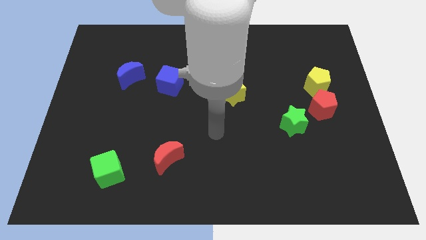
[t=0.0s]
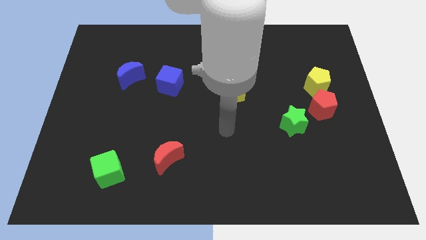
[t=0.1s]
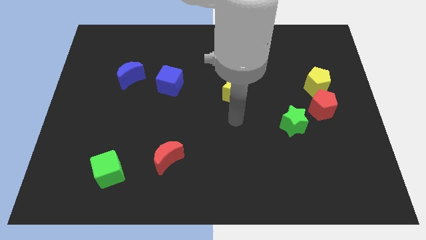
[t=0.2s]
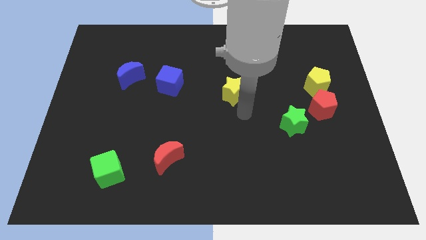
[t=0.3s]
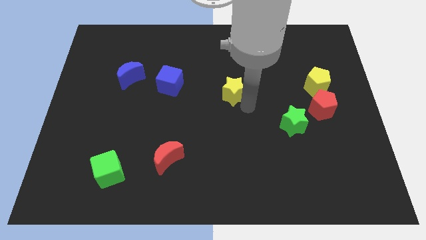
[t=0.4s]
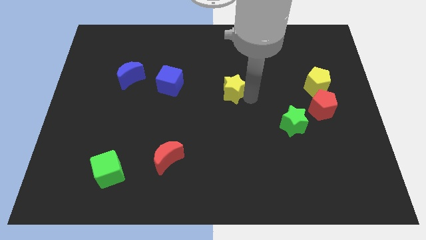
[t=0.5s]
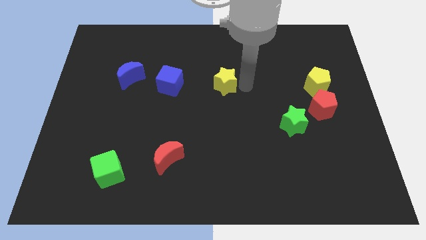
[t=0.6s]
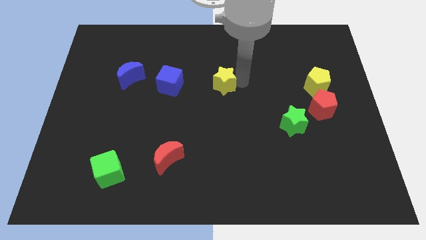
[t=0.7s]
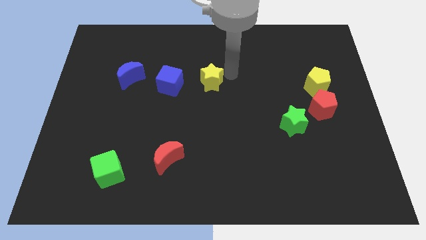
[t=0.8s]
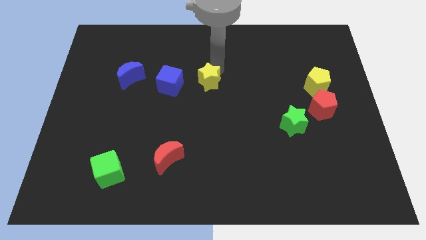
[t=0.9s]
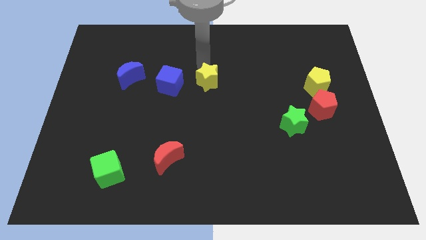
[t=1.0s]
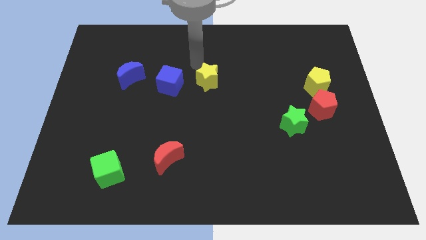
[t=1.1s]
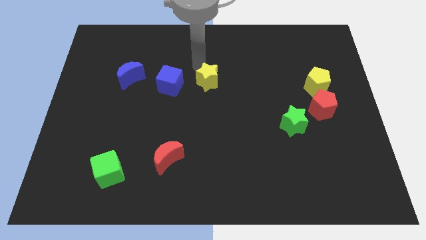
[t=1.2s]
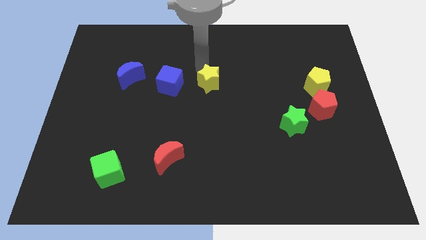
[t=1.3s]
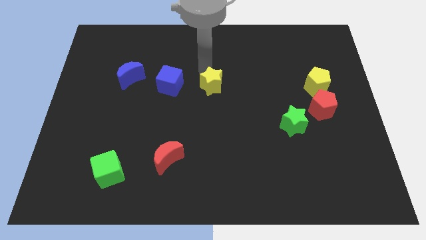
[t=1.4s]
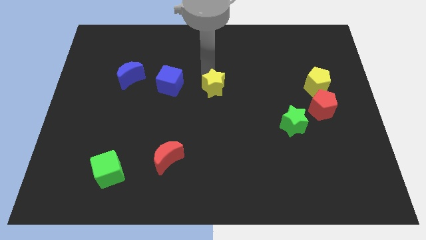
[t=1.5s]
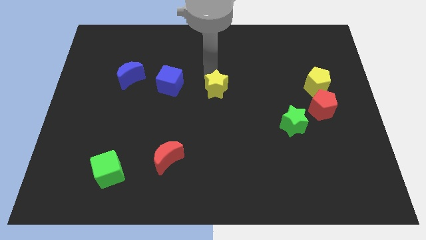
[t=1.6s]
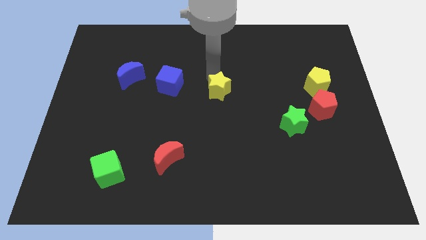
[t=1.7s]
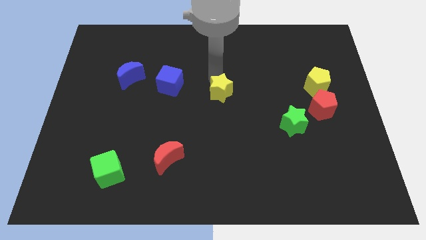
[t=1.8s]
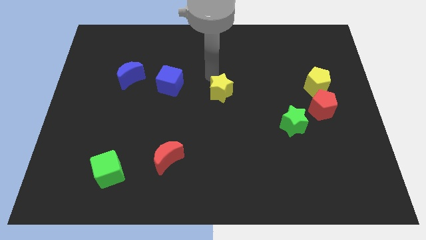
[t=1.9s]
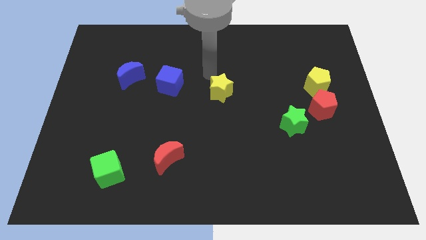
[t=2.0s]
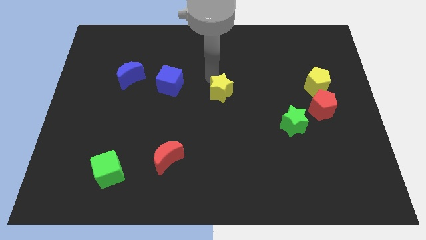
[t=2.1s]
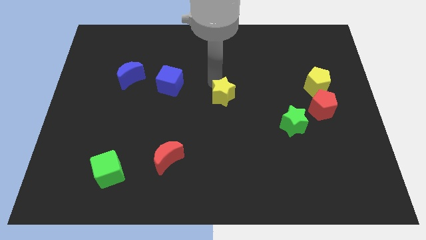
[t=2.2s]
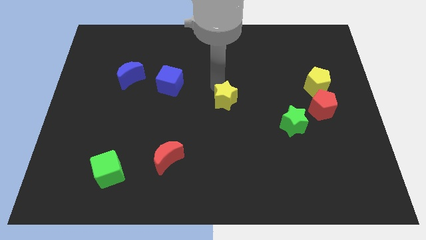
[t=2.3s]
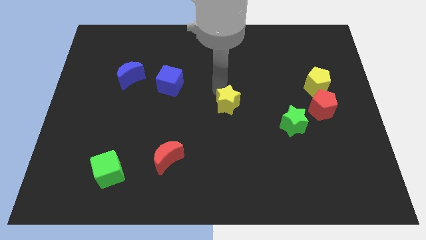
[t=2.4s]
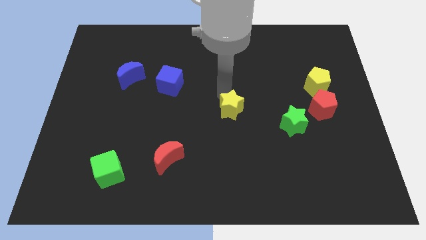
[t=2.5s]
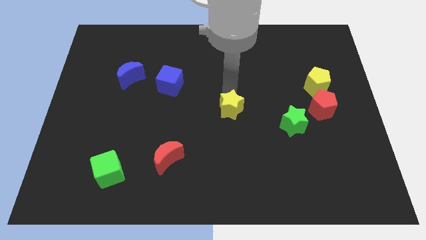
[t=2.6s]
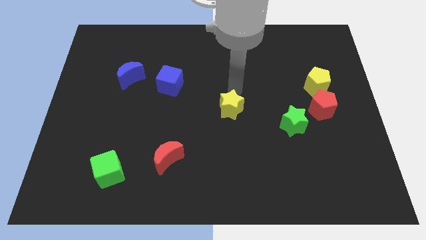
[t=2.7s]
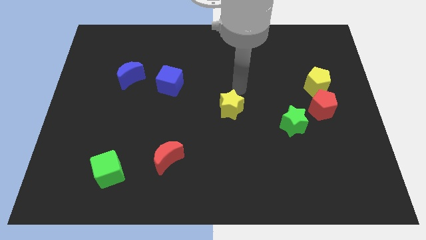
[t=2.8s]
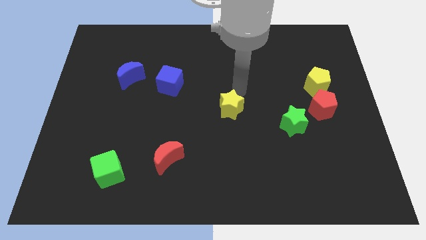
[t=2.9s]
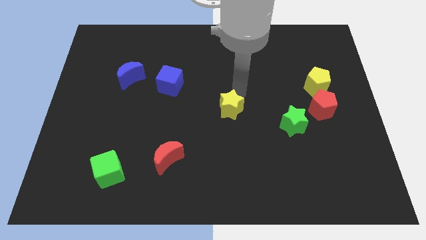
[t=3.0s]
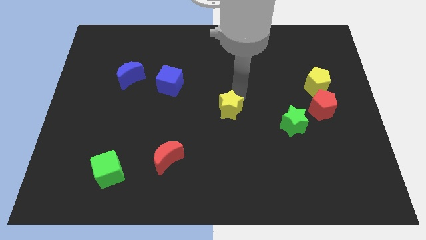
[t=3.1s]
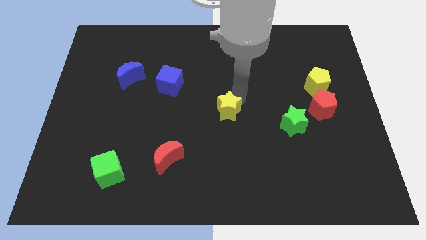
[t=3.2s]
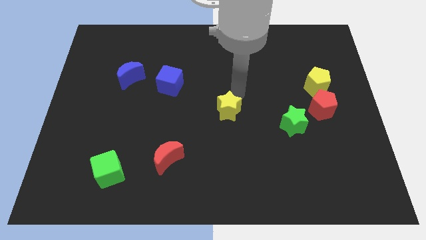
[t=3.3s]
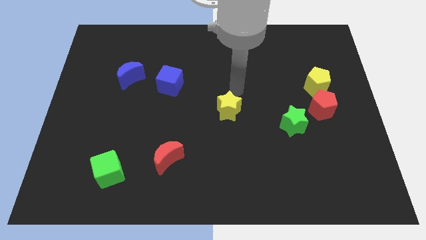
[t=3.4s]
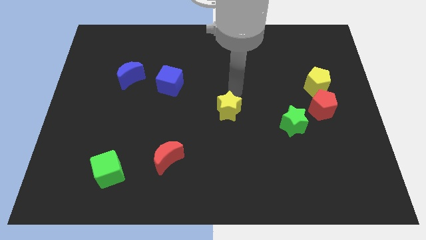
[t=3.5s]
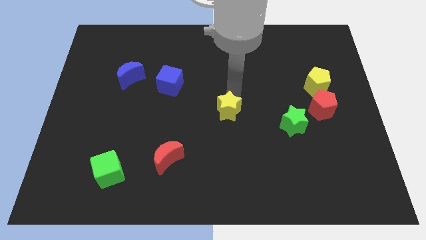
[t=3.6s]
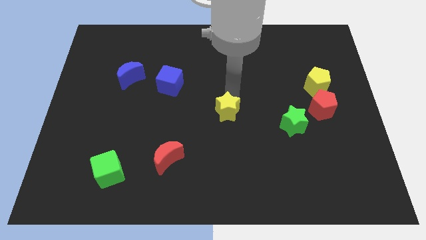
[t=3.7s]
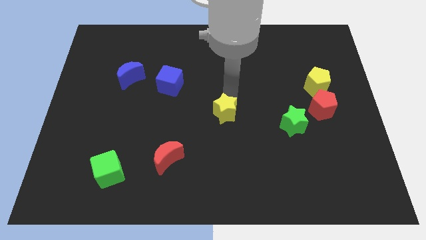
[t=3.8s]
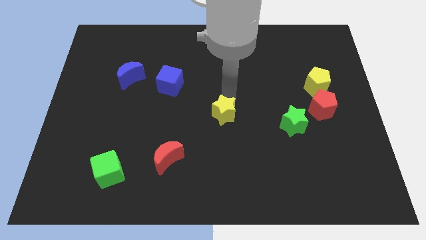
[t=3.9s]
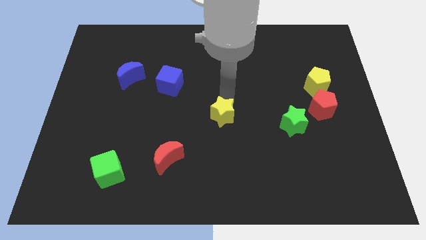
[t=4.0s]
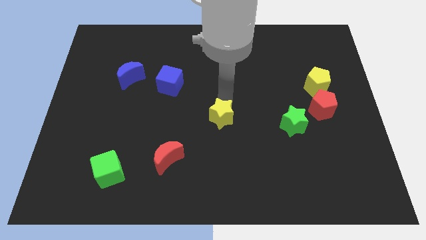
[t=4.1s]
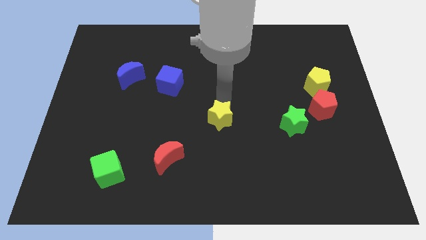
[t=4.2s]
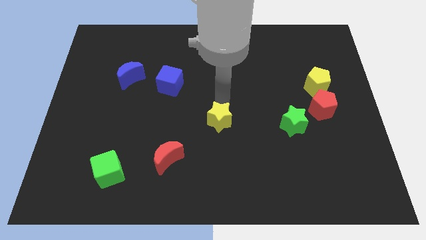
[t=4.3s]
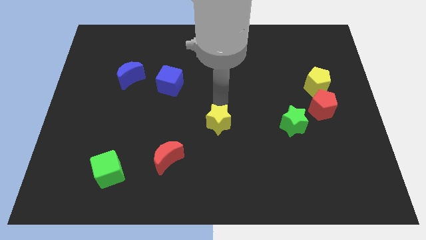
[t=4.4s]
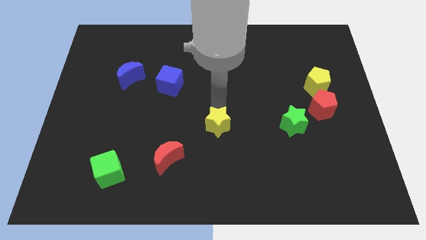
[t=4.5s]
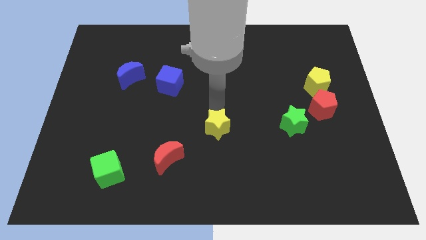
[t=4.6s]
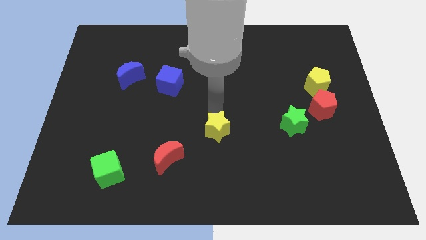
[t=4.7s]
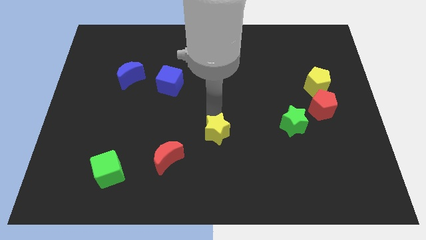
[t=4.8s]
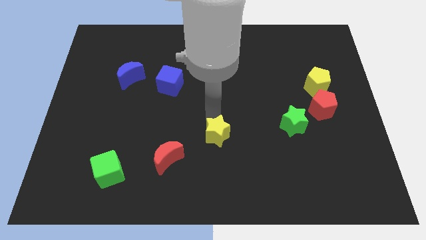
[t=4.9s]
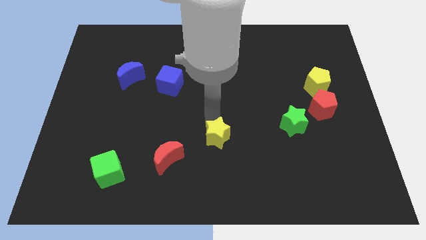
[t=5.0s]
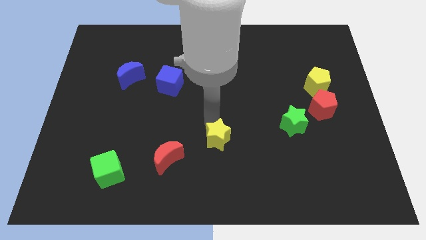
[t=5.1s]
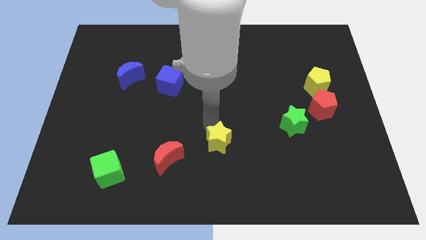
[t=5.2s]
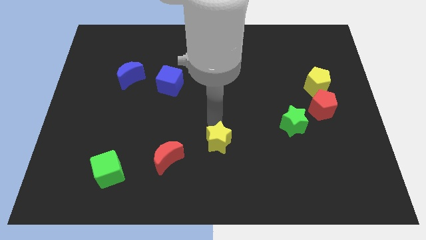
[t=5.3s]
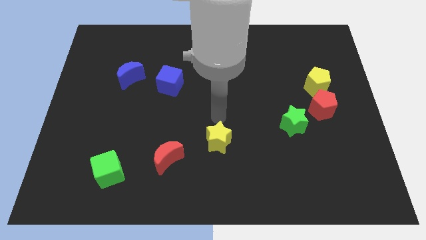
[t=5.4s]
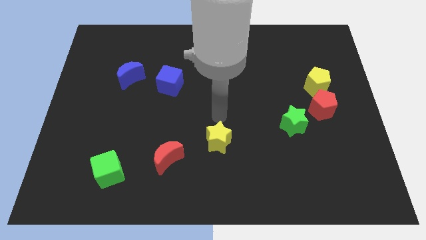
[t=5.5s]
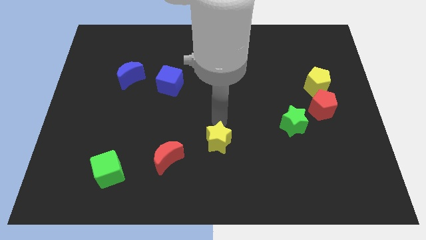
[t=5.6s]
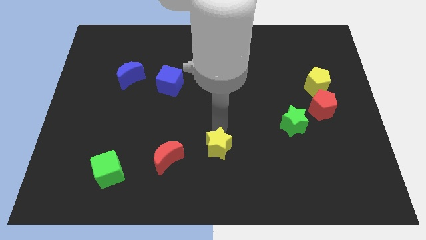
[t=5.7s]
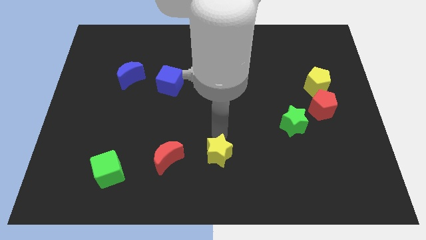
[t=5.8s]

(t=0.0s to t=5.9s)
put the yellow star to the bottom

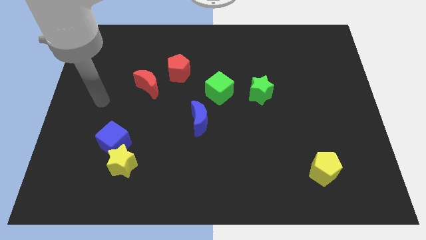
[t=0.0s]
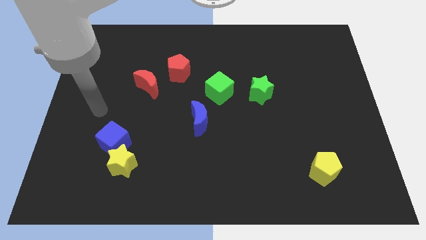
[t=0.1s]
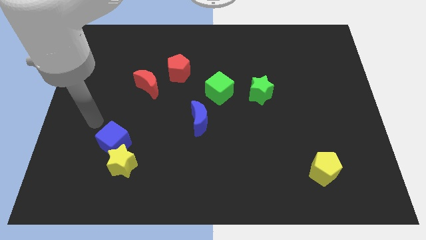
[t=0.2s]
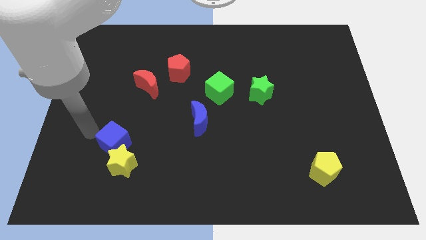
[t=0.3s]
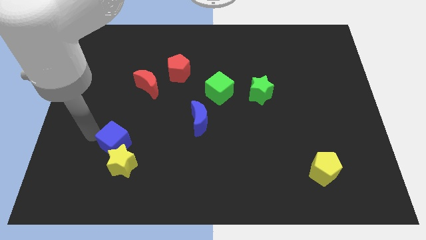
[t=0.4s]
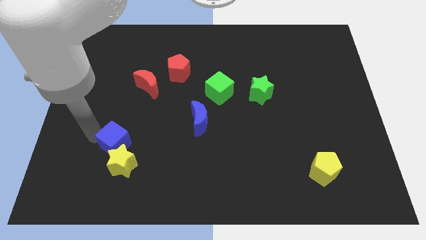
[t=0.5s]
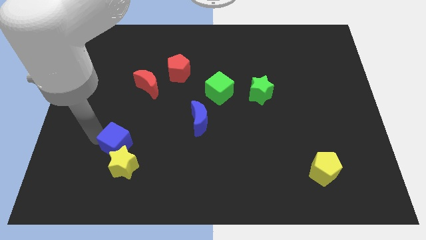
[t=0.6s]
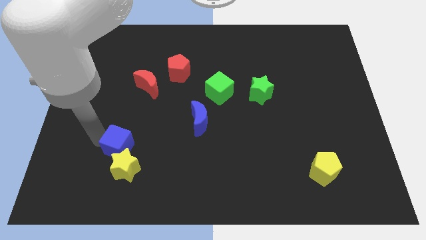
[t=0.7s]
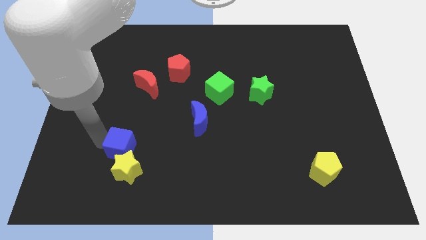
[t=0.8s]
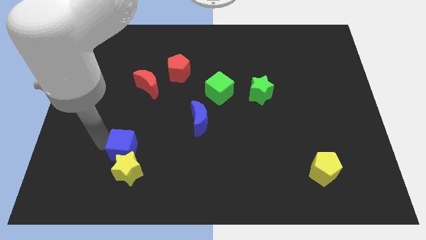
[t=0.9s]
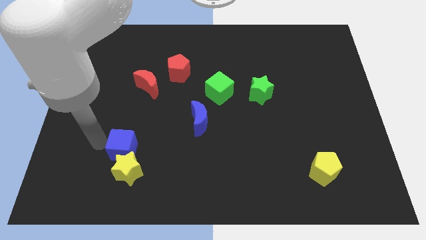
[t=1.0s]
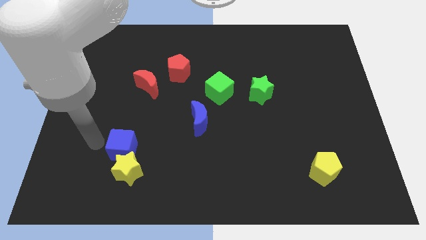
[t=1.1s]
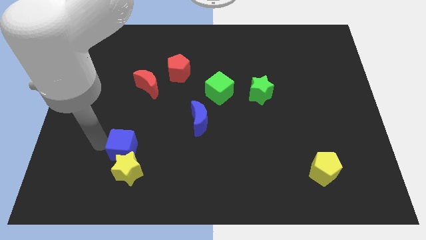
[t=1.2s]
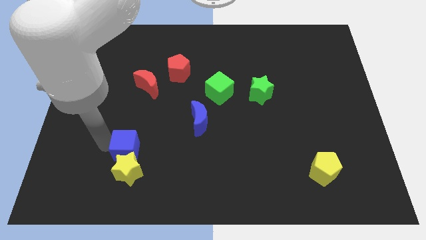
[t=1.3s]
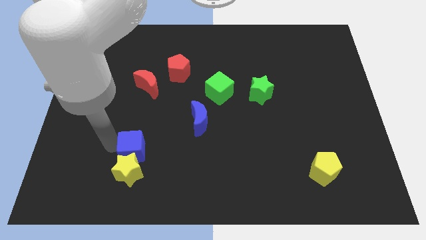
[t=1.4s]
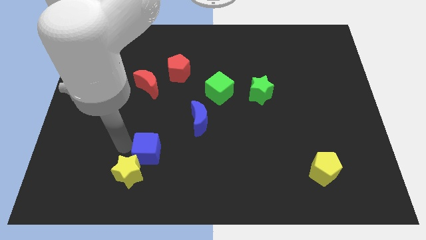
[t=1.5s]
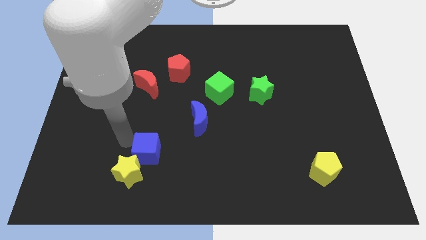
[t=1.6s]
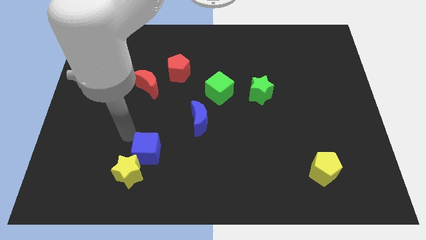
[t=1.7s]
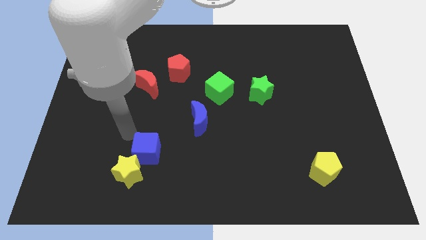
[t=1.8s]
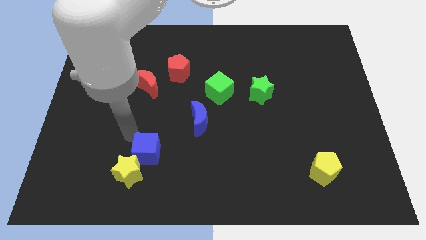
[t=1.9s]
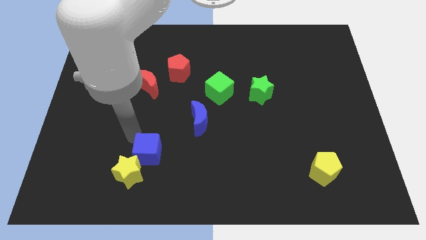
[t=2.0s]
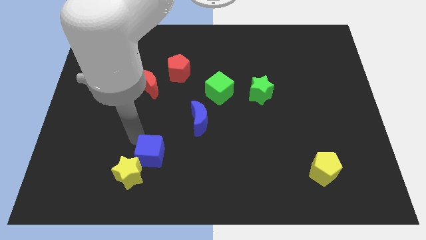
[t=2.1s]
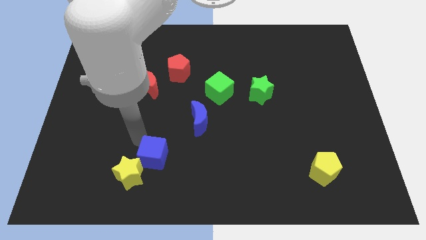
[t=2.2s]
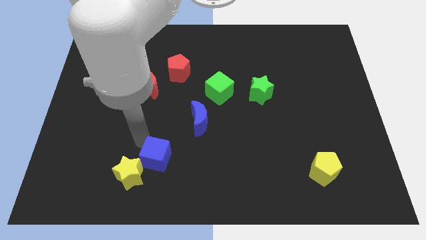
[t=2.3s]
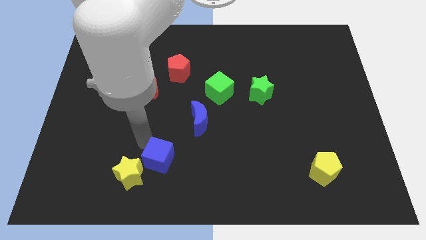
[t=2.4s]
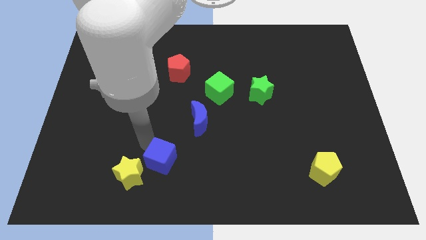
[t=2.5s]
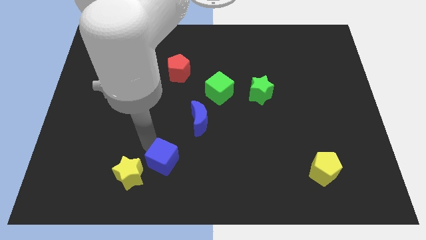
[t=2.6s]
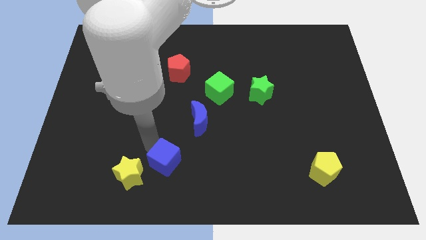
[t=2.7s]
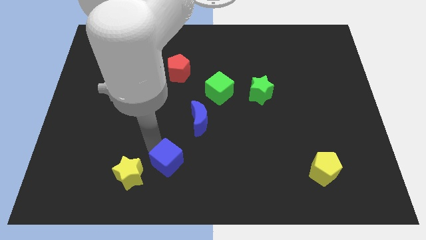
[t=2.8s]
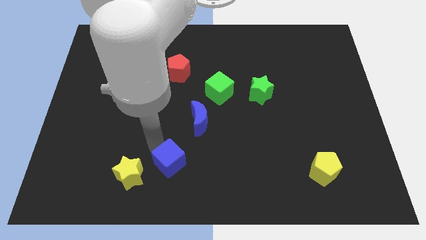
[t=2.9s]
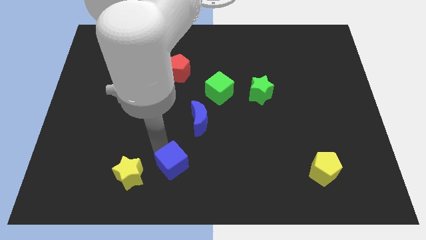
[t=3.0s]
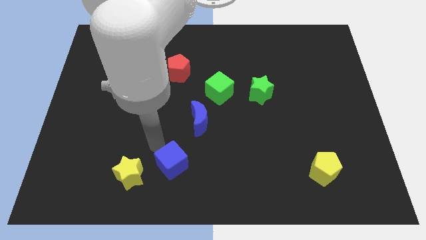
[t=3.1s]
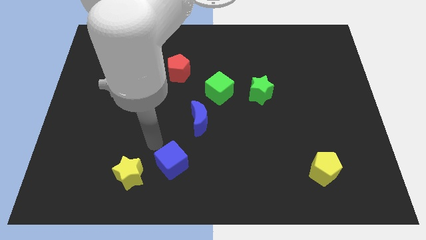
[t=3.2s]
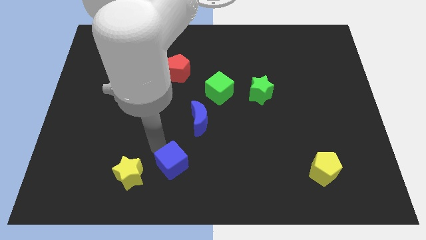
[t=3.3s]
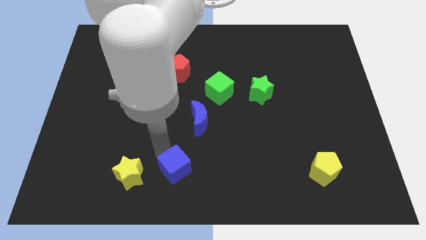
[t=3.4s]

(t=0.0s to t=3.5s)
put the blue cube to the bottom side
